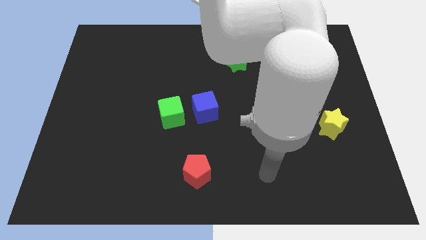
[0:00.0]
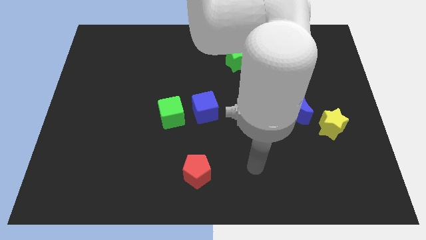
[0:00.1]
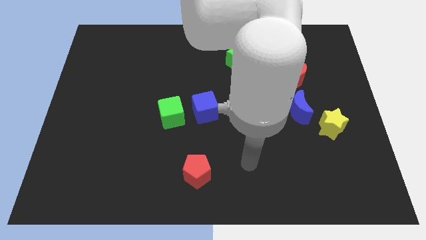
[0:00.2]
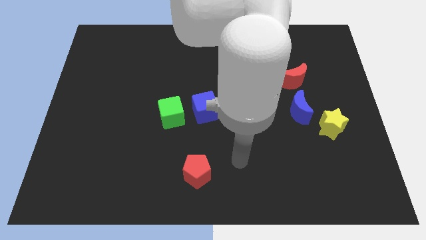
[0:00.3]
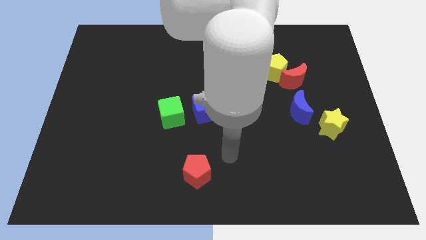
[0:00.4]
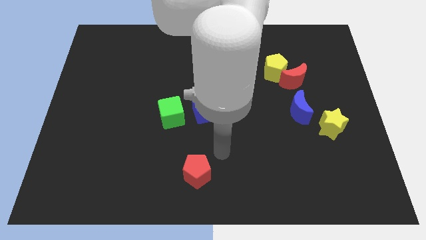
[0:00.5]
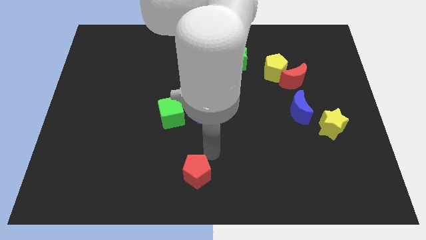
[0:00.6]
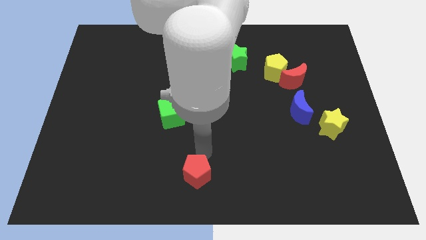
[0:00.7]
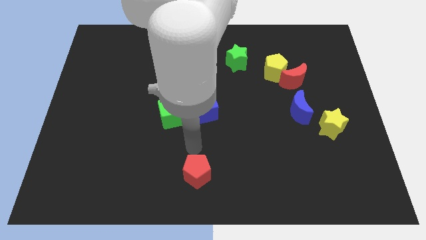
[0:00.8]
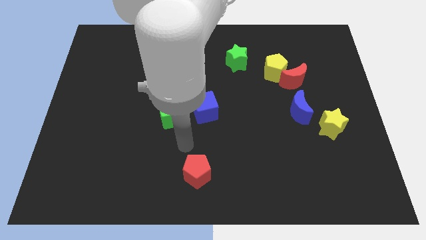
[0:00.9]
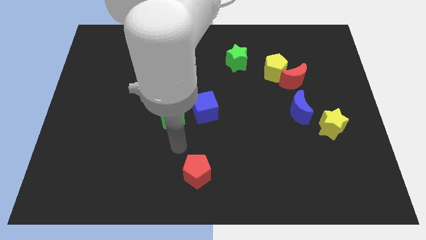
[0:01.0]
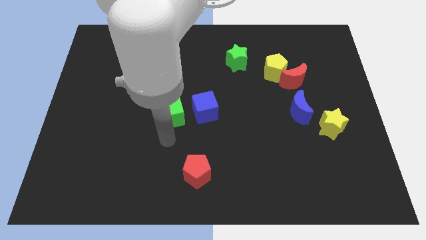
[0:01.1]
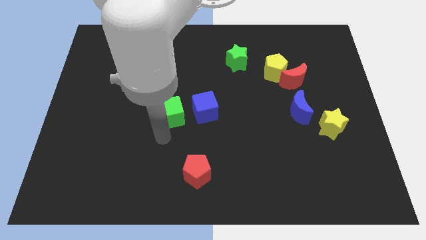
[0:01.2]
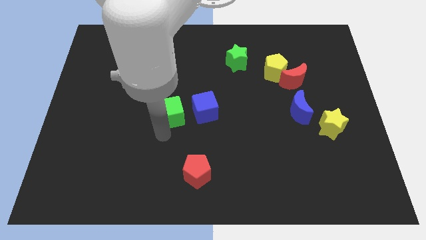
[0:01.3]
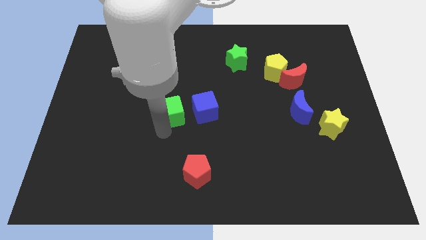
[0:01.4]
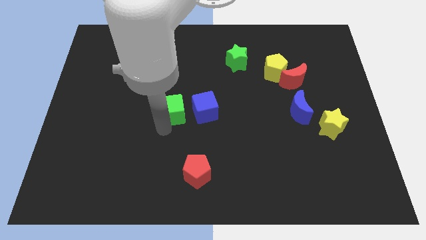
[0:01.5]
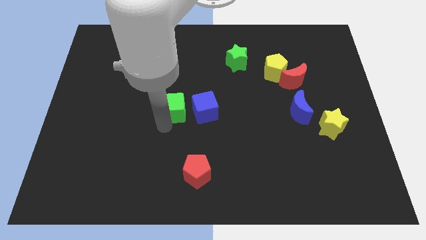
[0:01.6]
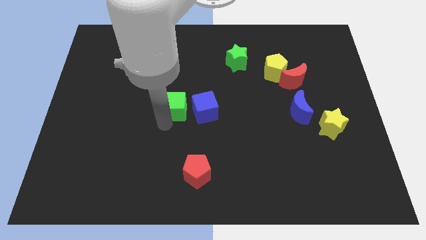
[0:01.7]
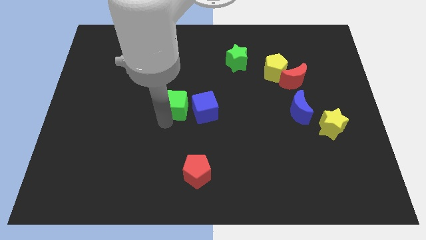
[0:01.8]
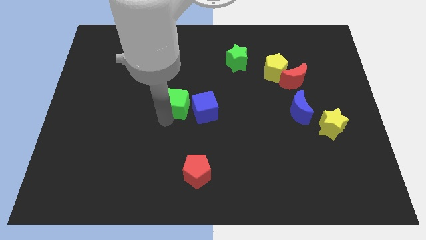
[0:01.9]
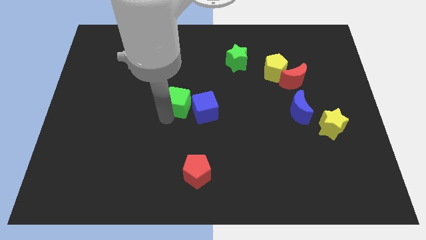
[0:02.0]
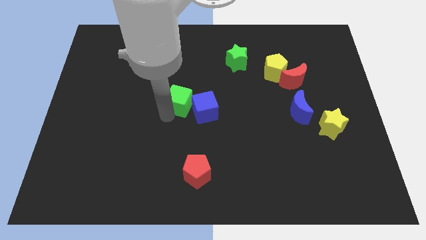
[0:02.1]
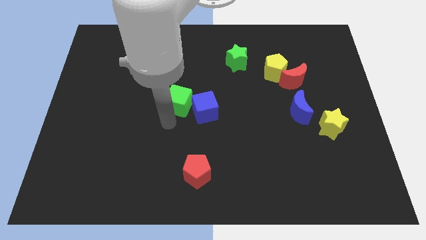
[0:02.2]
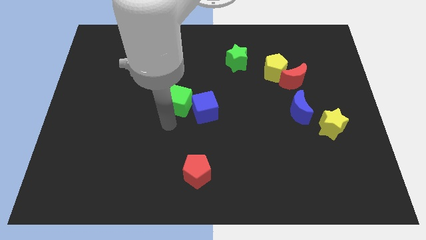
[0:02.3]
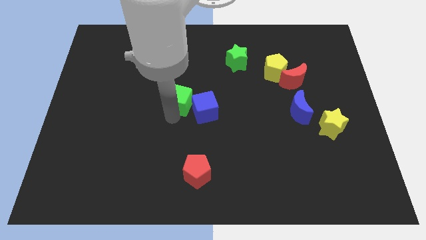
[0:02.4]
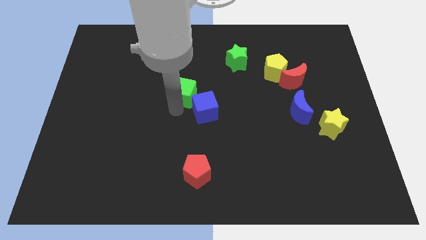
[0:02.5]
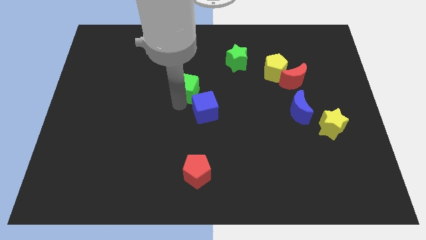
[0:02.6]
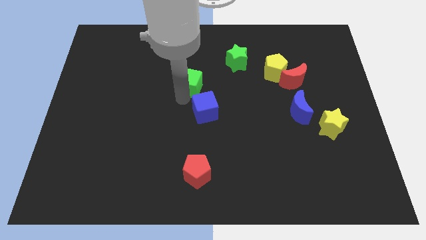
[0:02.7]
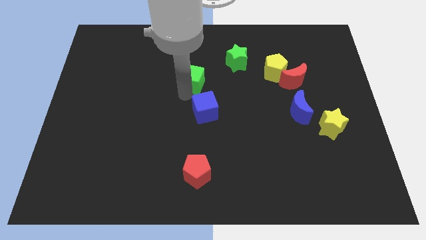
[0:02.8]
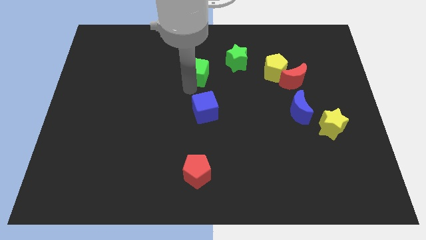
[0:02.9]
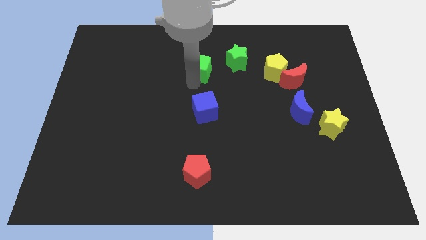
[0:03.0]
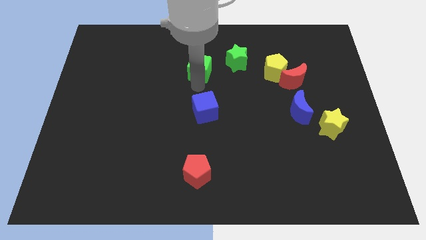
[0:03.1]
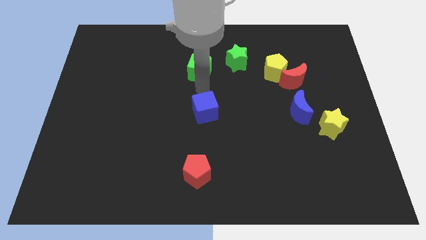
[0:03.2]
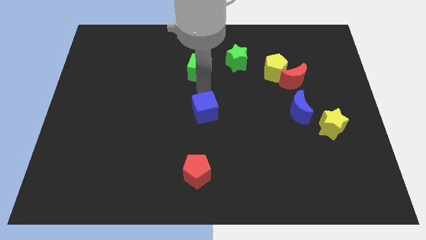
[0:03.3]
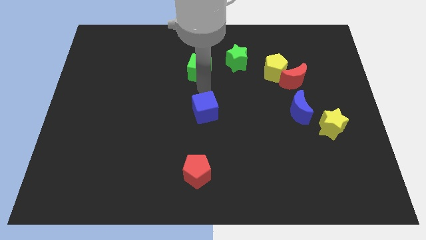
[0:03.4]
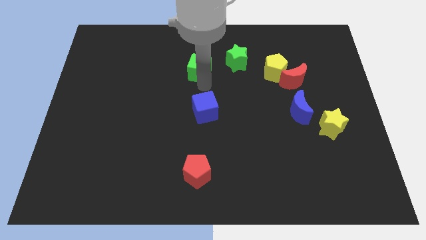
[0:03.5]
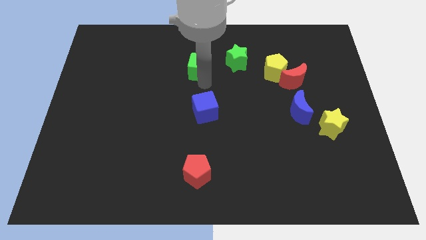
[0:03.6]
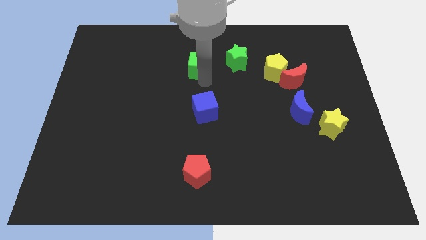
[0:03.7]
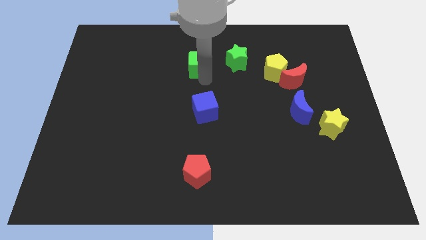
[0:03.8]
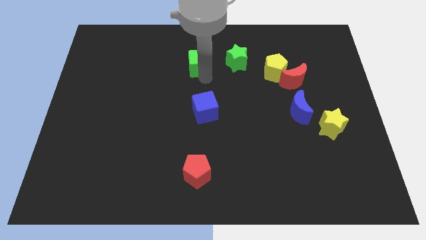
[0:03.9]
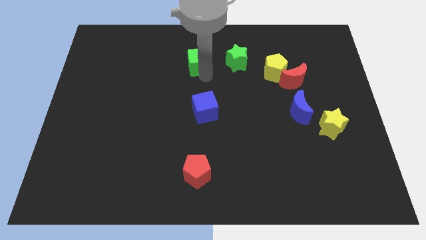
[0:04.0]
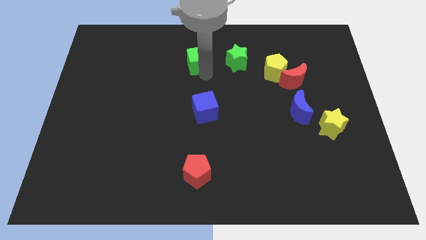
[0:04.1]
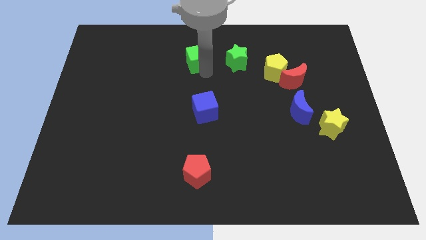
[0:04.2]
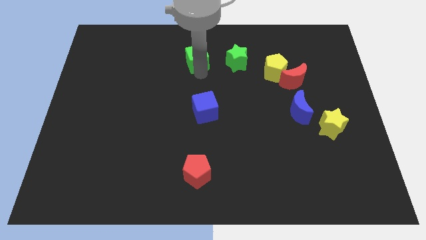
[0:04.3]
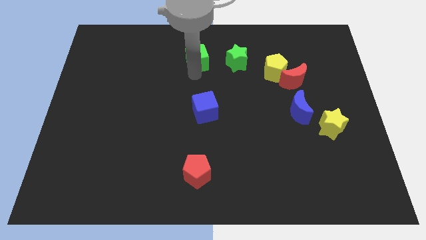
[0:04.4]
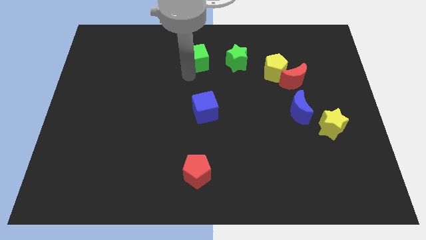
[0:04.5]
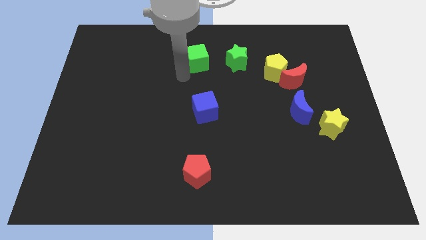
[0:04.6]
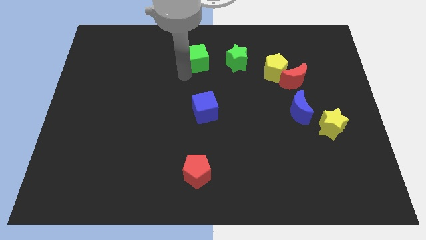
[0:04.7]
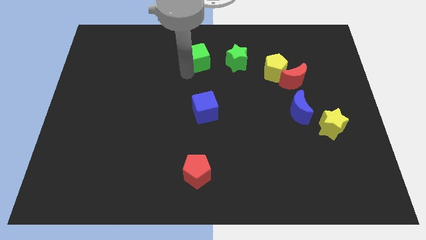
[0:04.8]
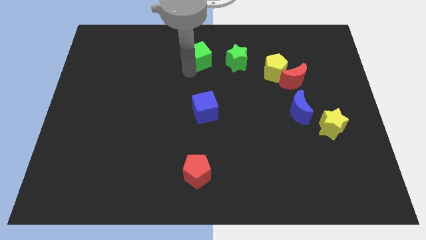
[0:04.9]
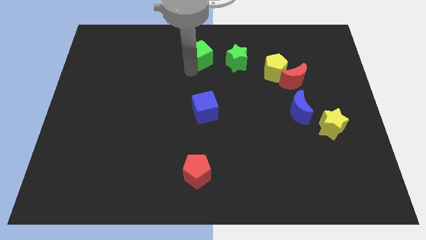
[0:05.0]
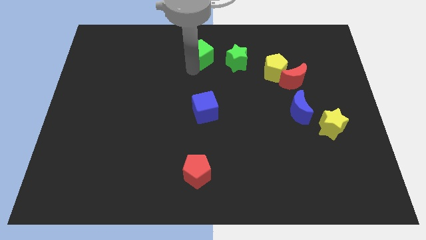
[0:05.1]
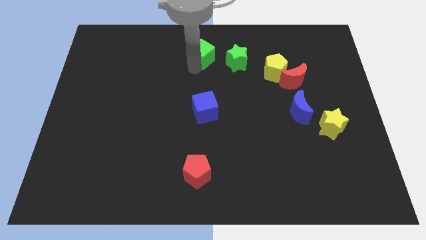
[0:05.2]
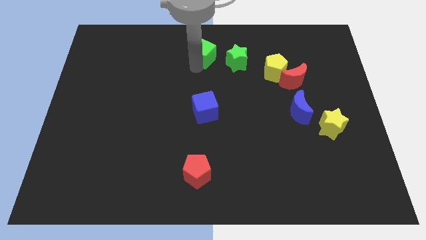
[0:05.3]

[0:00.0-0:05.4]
slide the green cube to the top side

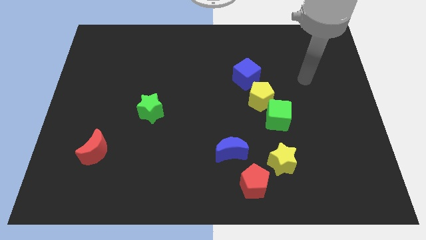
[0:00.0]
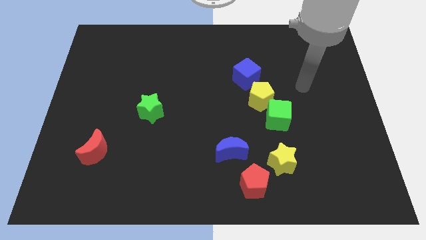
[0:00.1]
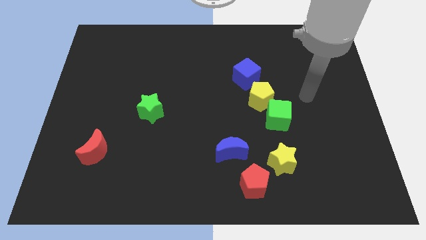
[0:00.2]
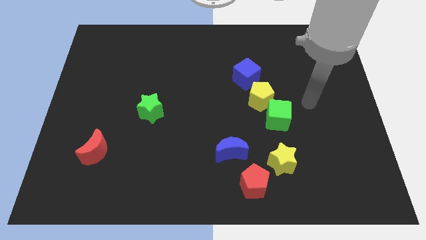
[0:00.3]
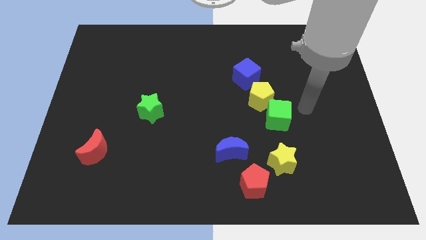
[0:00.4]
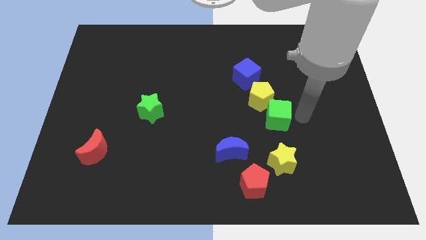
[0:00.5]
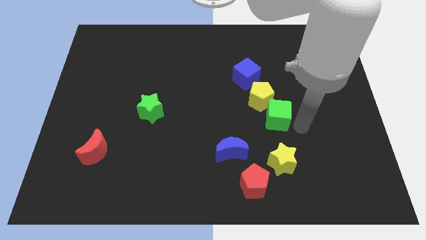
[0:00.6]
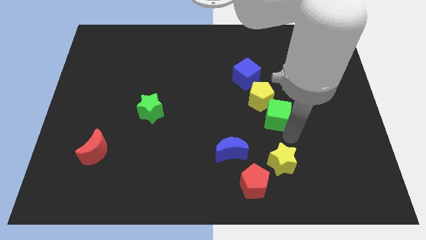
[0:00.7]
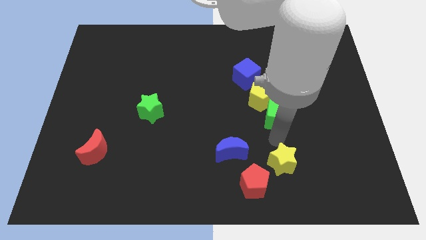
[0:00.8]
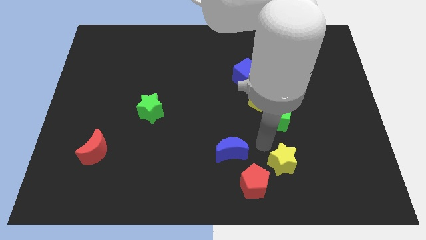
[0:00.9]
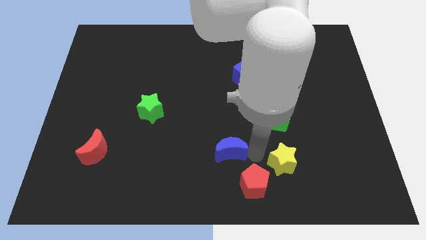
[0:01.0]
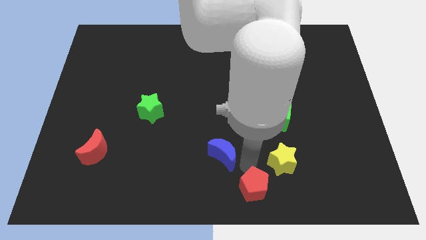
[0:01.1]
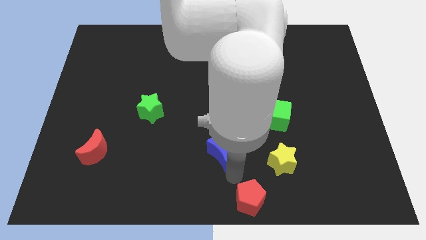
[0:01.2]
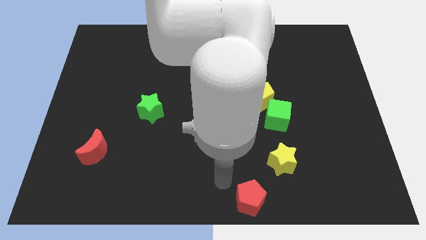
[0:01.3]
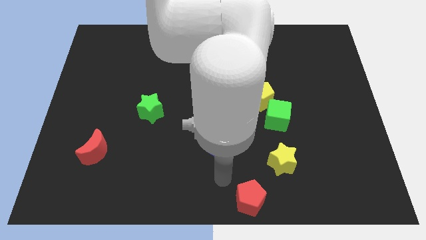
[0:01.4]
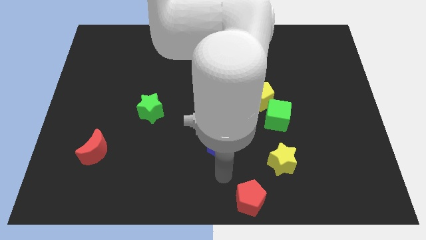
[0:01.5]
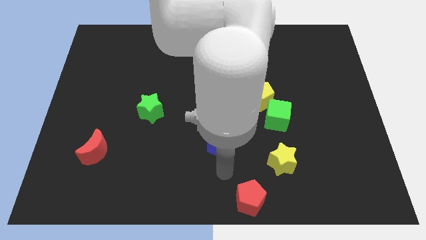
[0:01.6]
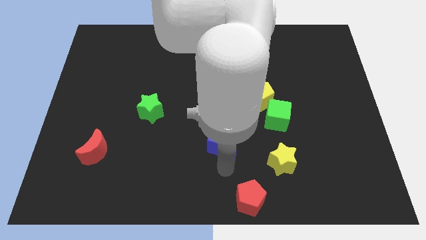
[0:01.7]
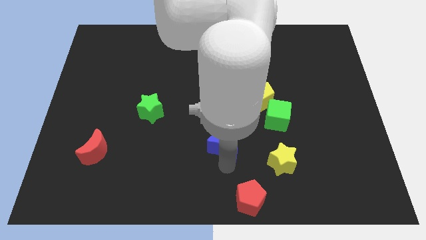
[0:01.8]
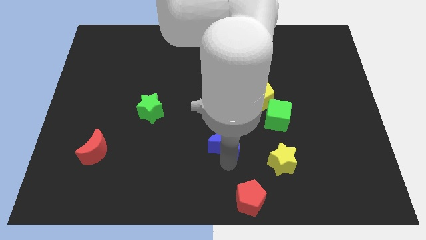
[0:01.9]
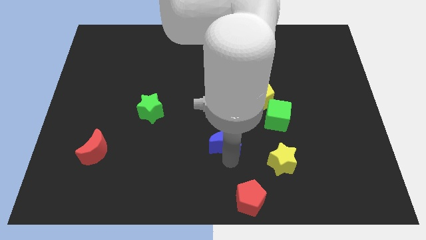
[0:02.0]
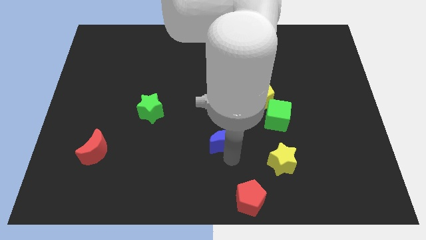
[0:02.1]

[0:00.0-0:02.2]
push the blue moon to the center

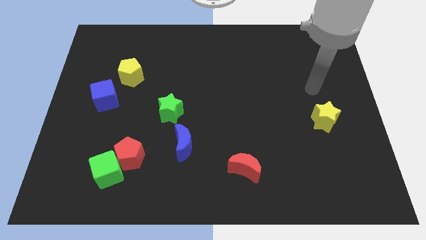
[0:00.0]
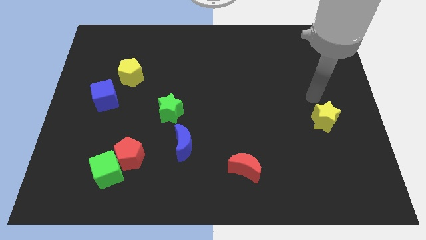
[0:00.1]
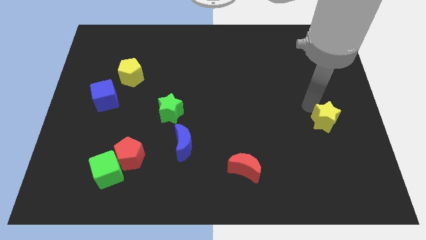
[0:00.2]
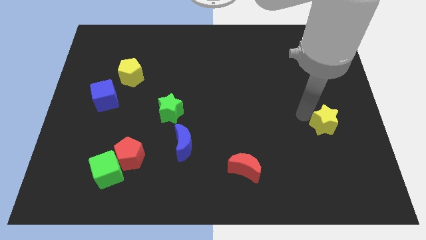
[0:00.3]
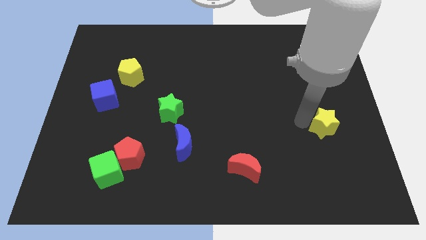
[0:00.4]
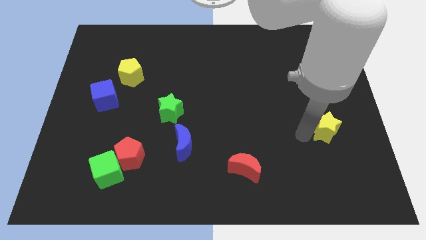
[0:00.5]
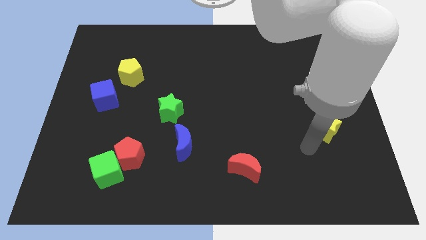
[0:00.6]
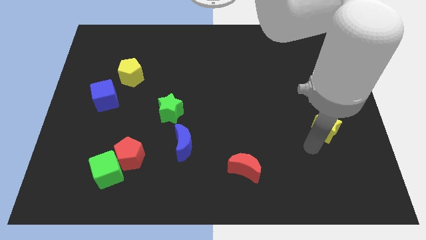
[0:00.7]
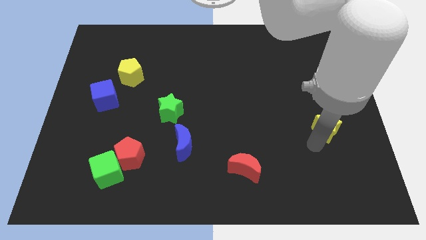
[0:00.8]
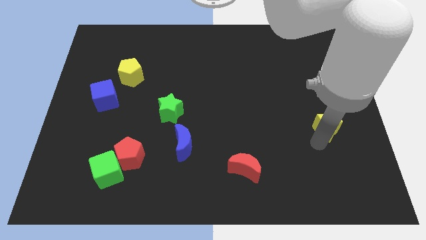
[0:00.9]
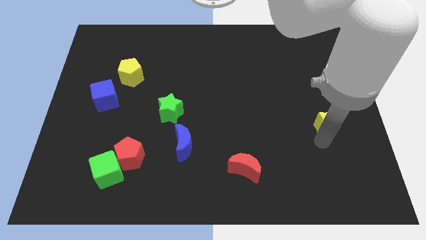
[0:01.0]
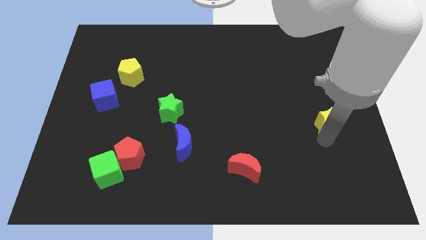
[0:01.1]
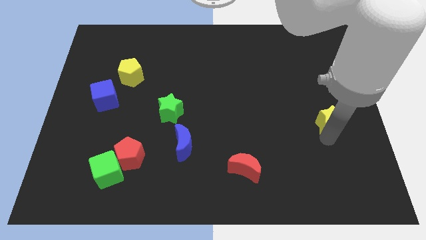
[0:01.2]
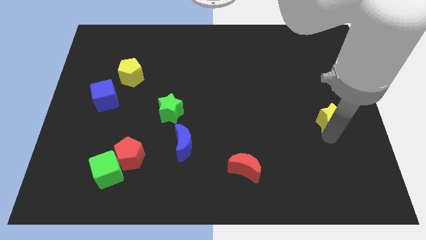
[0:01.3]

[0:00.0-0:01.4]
put the yellow star to the center right
